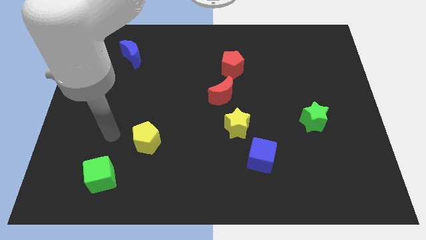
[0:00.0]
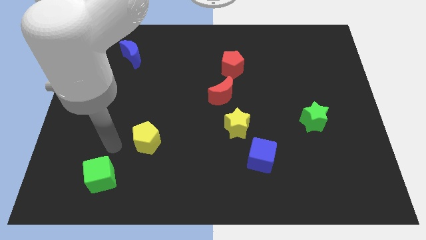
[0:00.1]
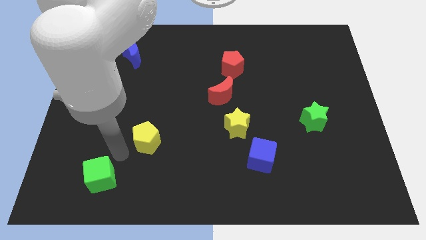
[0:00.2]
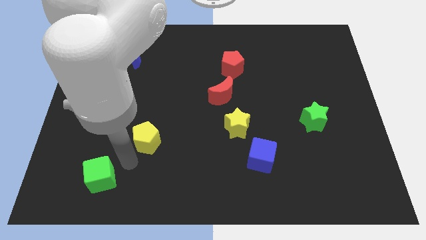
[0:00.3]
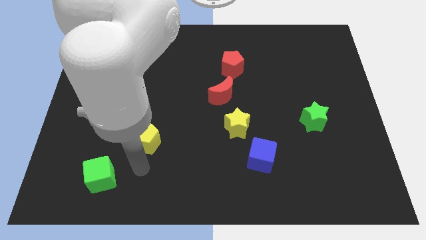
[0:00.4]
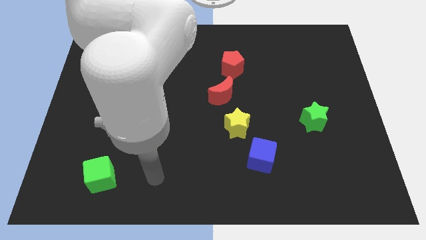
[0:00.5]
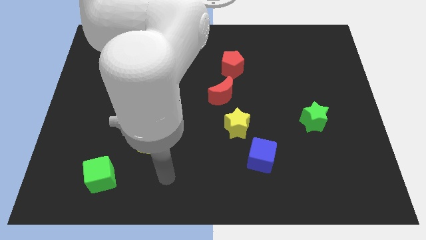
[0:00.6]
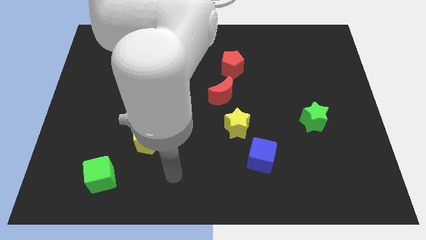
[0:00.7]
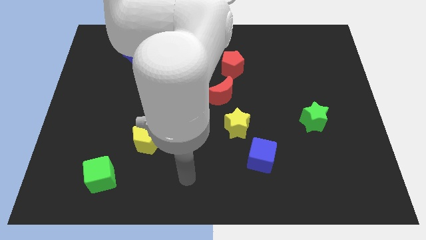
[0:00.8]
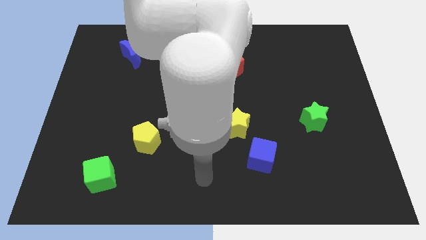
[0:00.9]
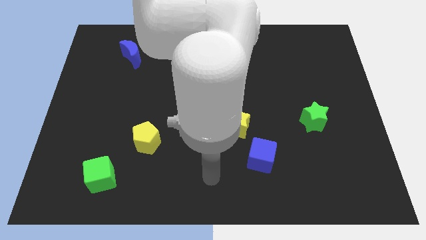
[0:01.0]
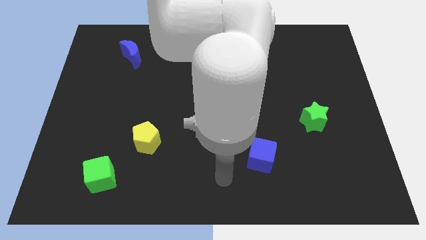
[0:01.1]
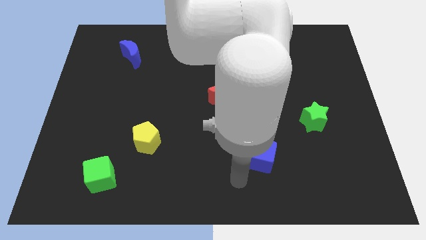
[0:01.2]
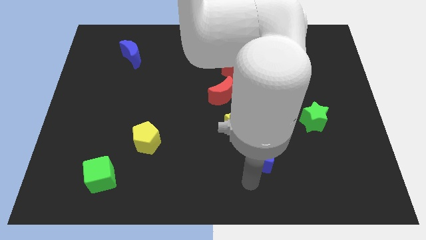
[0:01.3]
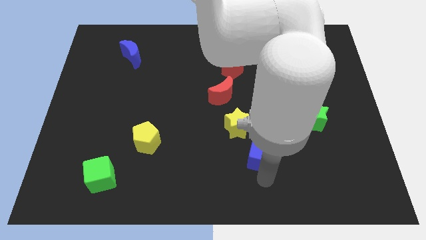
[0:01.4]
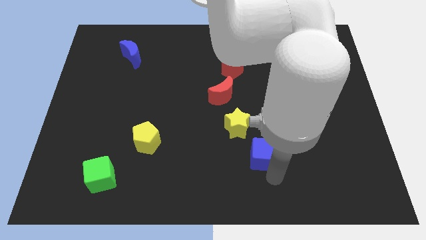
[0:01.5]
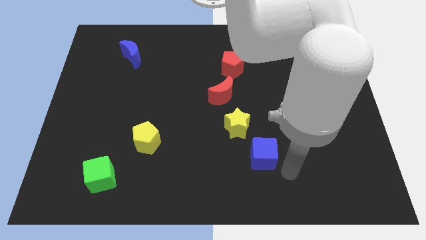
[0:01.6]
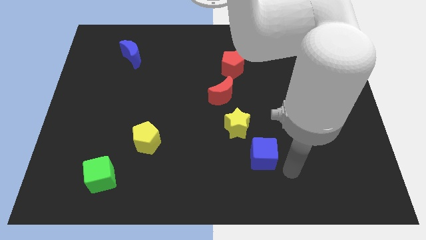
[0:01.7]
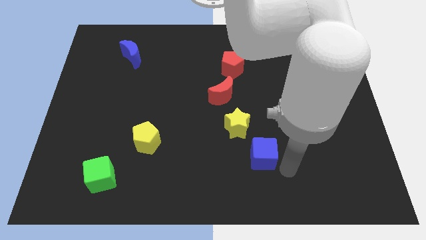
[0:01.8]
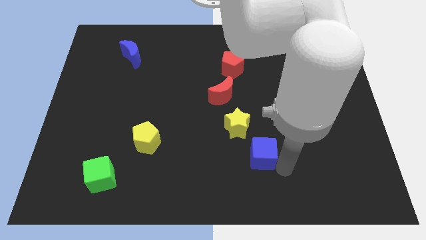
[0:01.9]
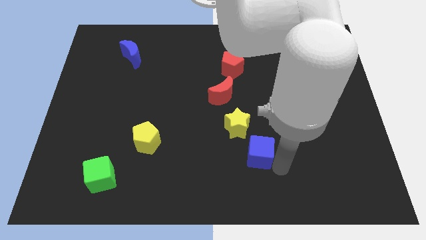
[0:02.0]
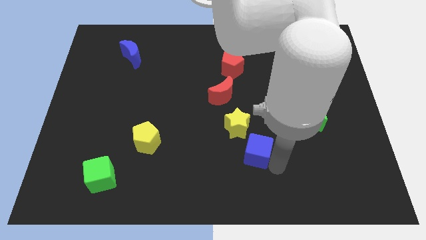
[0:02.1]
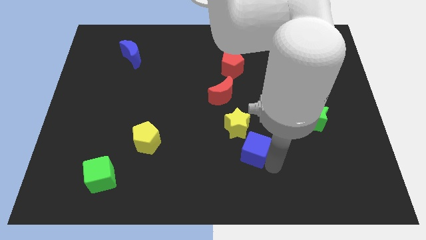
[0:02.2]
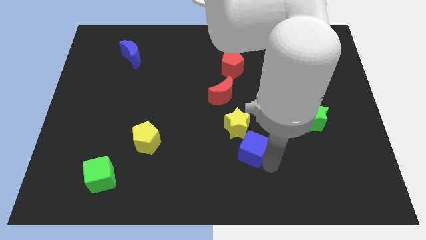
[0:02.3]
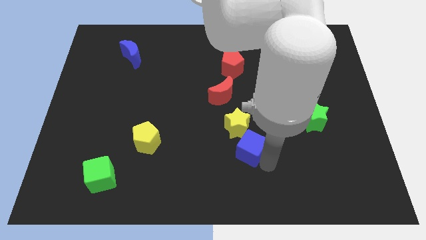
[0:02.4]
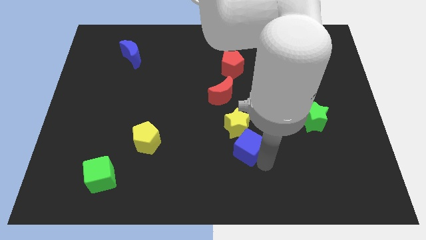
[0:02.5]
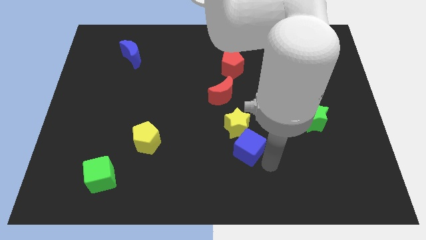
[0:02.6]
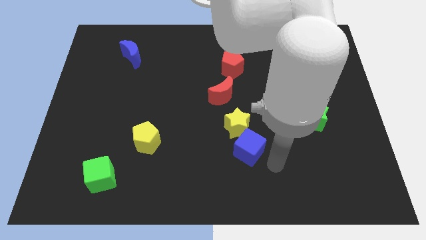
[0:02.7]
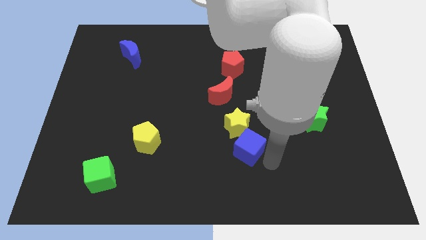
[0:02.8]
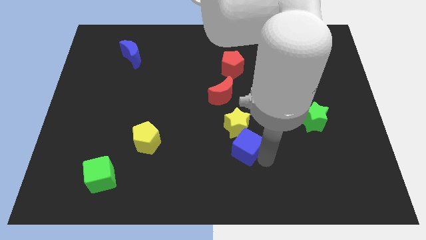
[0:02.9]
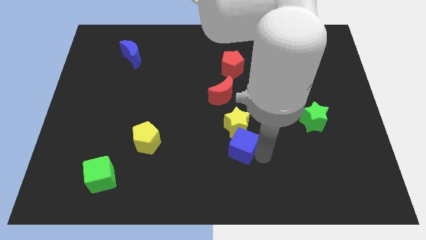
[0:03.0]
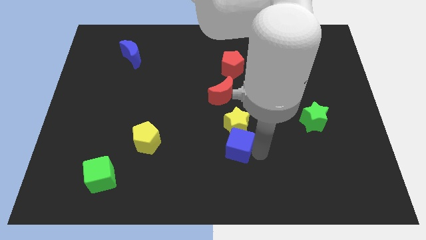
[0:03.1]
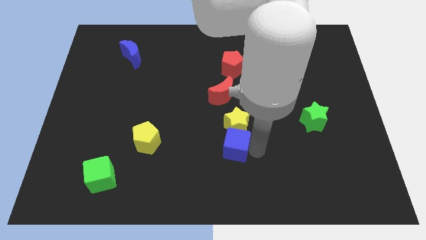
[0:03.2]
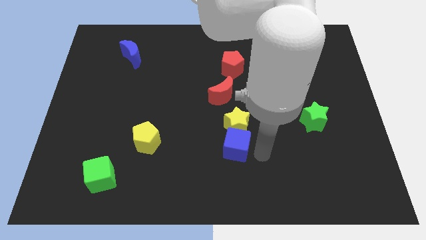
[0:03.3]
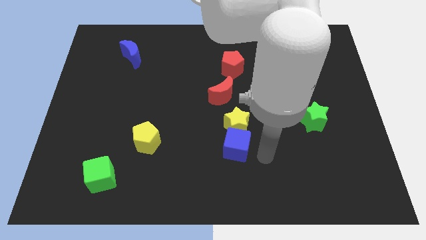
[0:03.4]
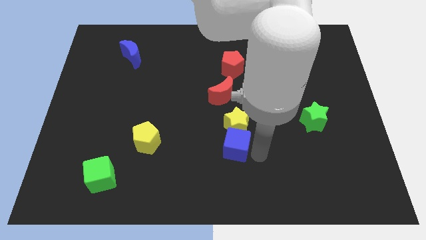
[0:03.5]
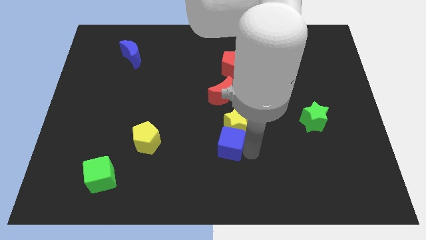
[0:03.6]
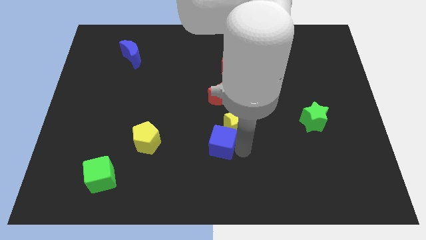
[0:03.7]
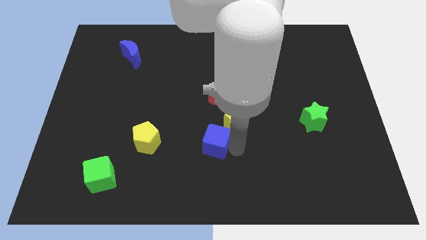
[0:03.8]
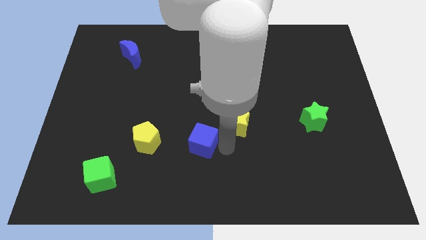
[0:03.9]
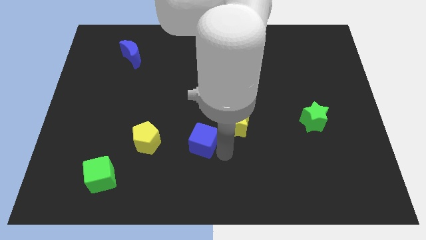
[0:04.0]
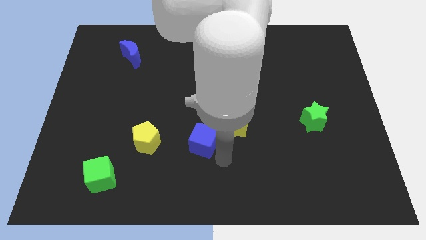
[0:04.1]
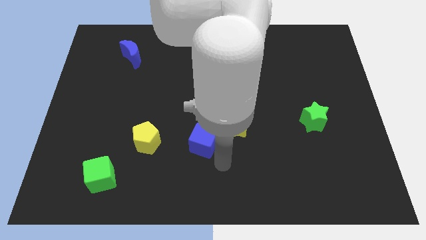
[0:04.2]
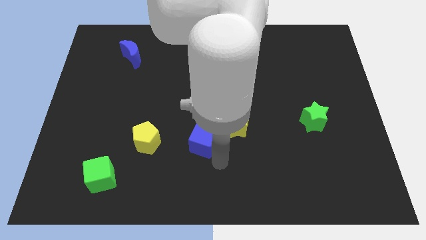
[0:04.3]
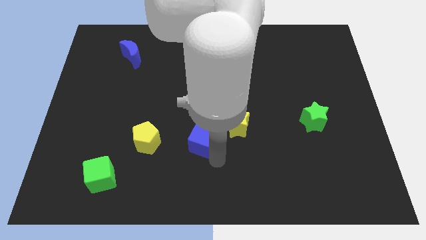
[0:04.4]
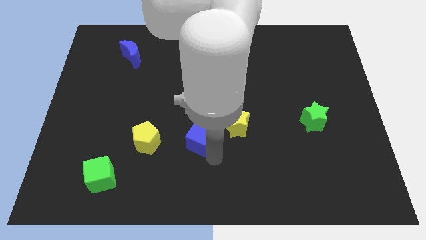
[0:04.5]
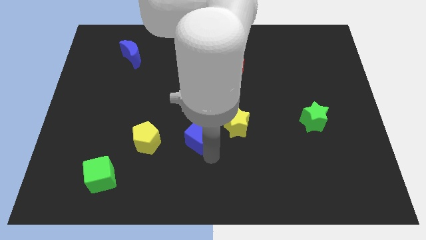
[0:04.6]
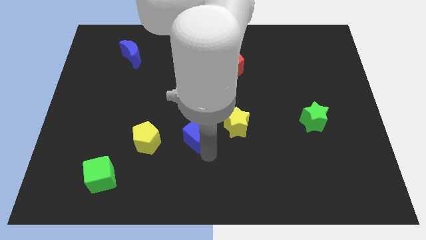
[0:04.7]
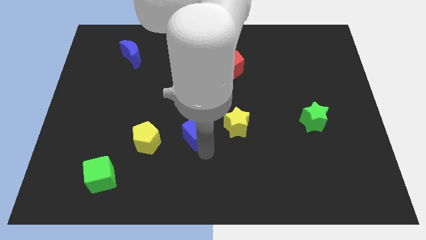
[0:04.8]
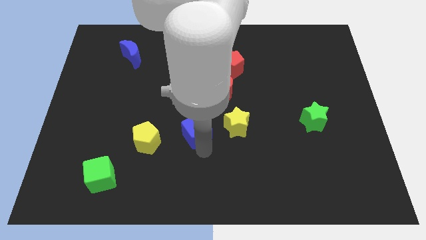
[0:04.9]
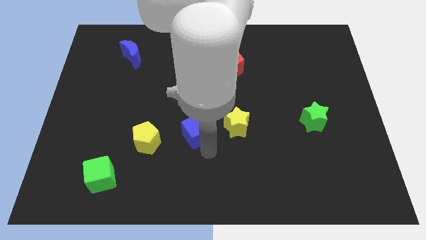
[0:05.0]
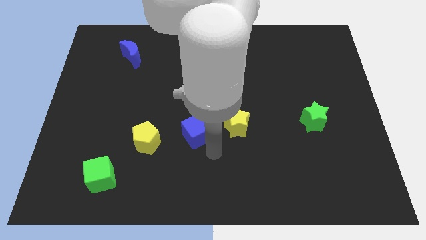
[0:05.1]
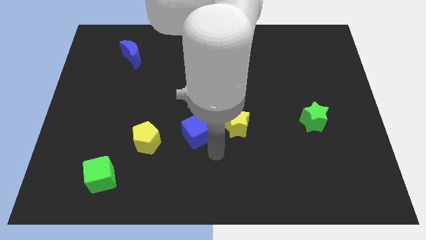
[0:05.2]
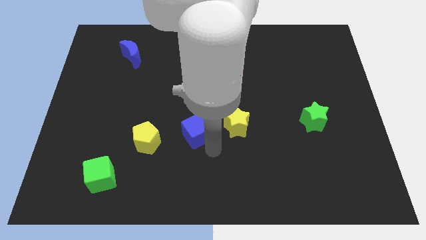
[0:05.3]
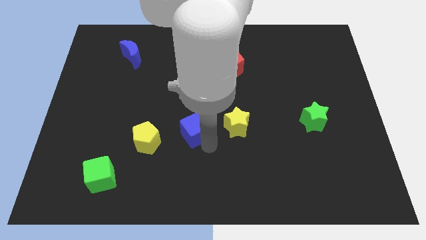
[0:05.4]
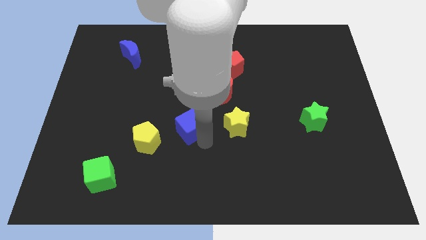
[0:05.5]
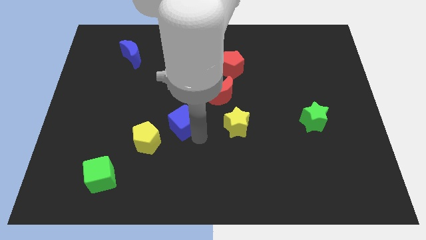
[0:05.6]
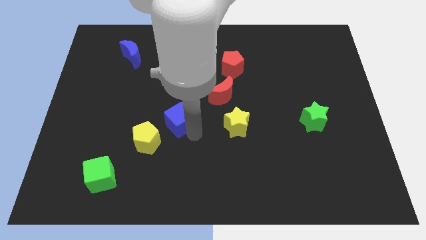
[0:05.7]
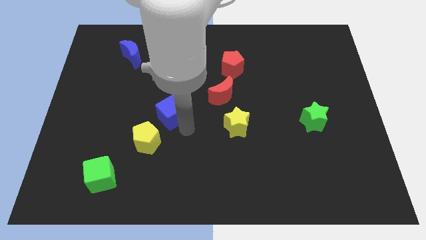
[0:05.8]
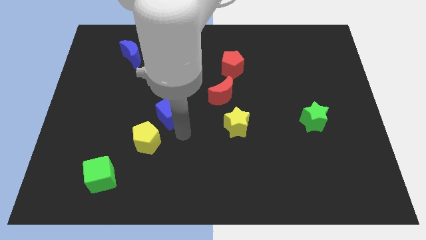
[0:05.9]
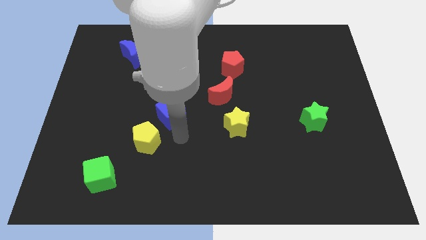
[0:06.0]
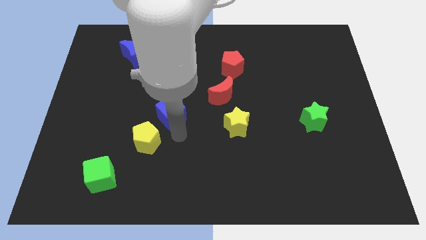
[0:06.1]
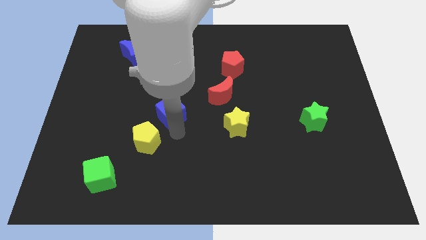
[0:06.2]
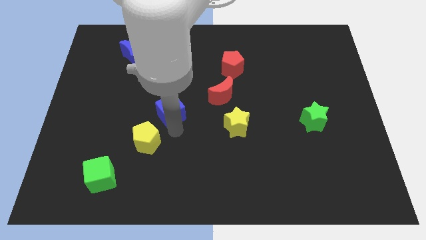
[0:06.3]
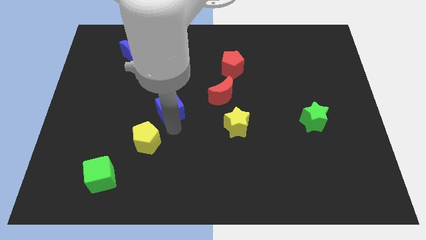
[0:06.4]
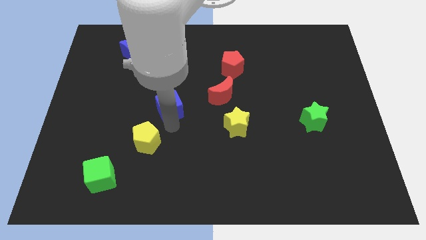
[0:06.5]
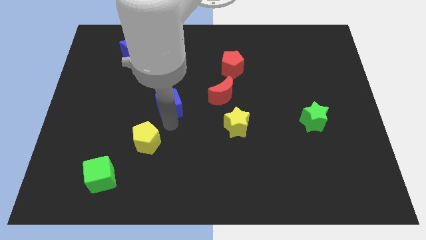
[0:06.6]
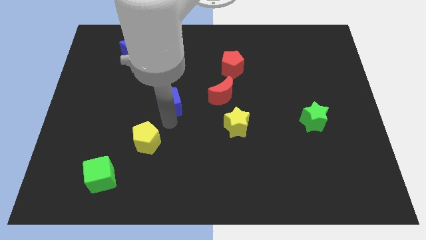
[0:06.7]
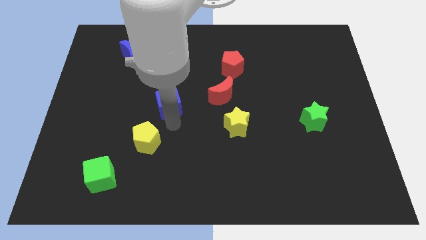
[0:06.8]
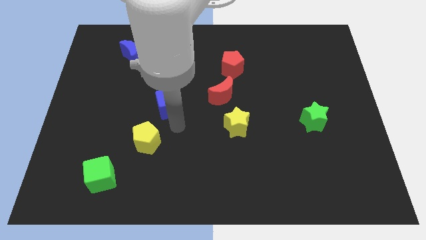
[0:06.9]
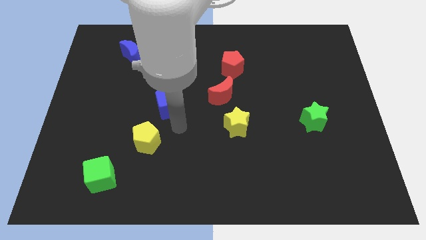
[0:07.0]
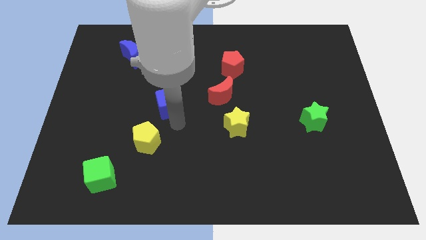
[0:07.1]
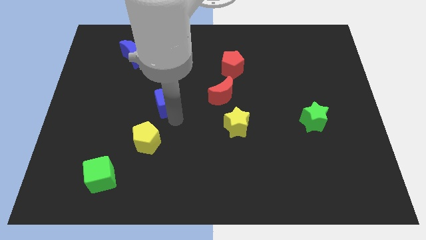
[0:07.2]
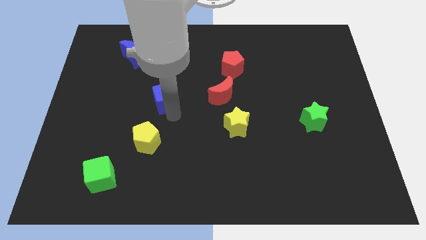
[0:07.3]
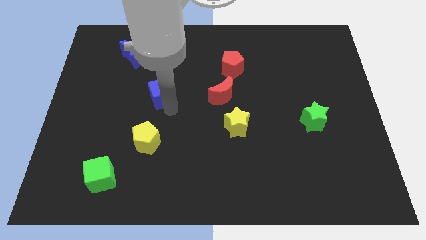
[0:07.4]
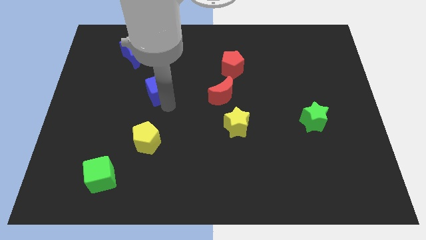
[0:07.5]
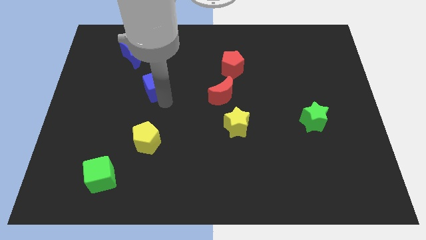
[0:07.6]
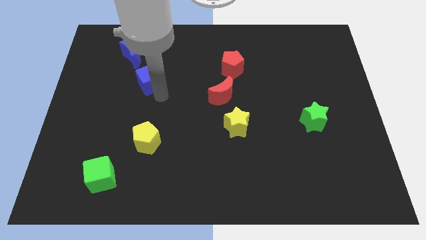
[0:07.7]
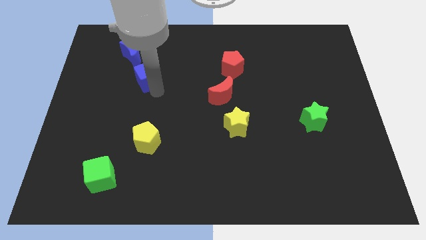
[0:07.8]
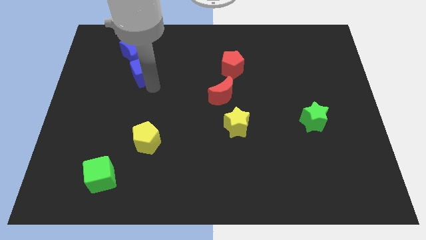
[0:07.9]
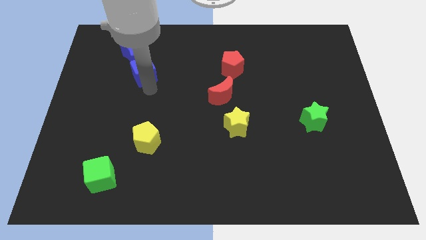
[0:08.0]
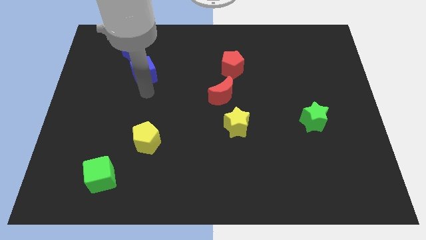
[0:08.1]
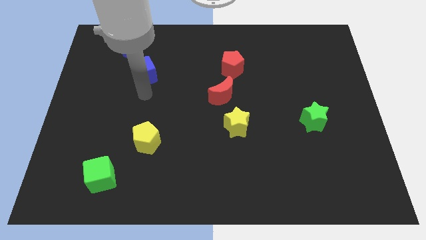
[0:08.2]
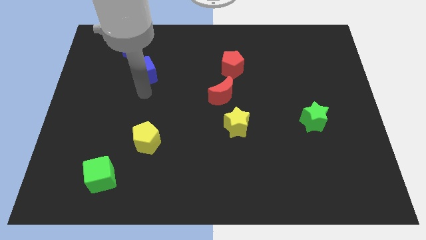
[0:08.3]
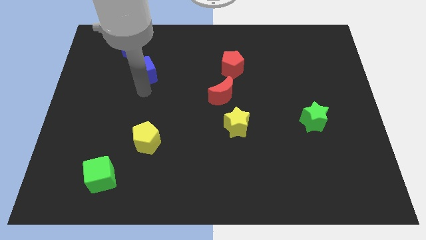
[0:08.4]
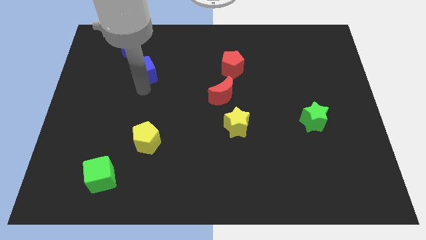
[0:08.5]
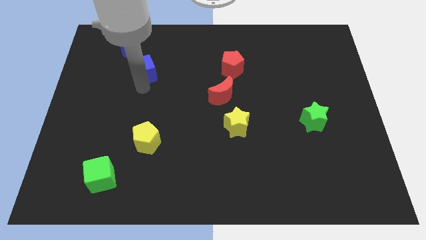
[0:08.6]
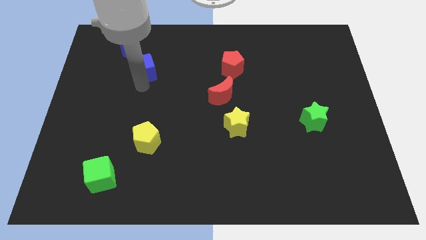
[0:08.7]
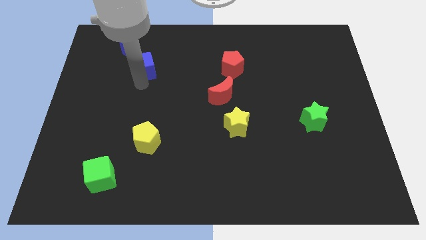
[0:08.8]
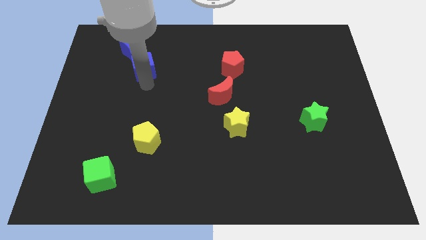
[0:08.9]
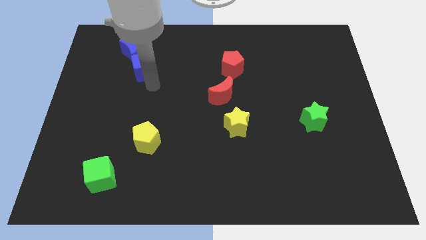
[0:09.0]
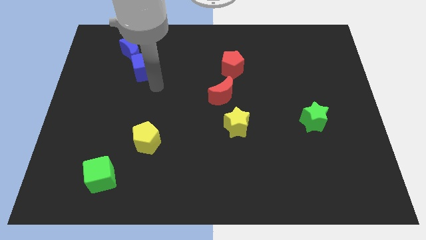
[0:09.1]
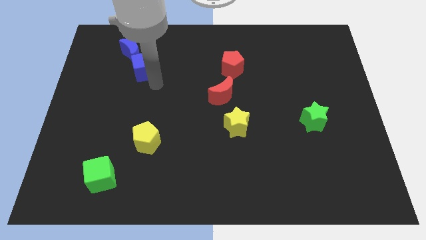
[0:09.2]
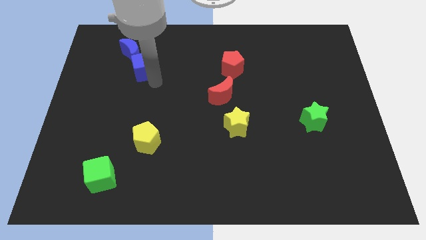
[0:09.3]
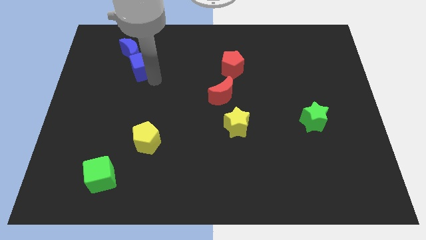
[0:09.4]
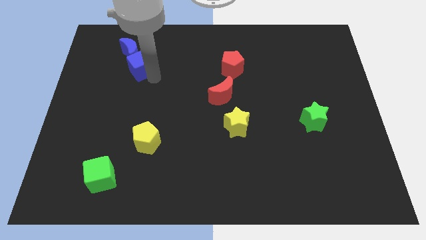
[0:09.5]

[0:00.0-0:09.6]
slide the blue cube close to the blue moon
